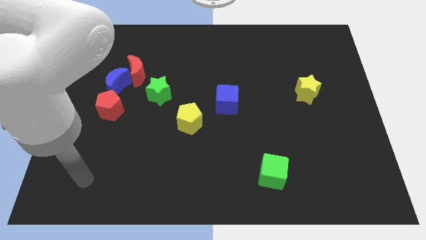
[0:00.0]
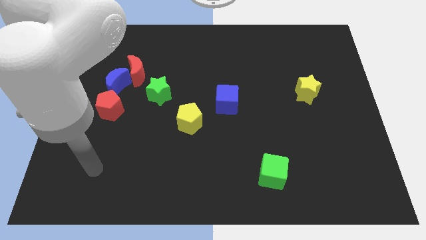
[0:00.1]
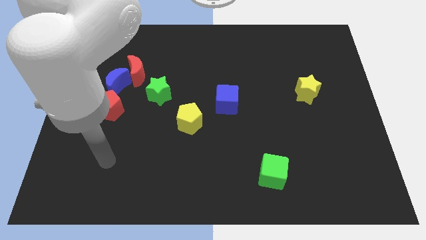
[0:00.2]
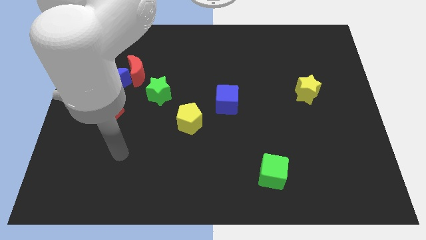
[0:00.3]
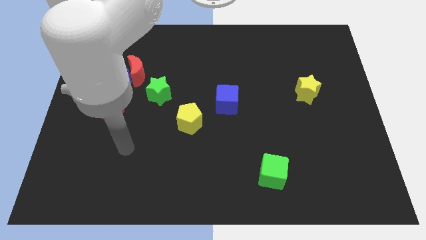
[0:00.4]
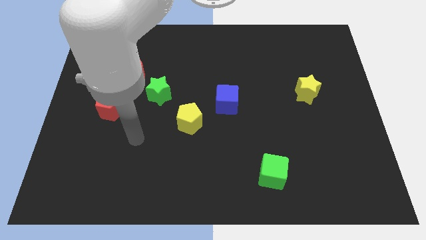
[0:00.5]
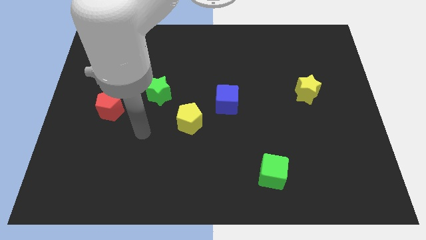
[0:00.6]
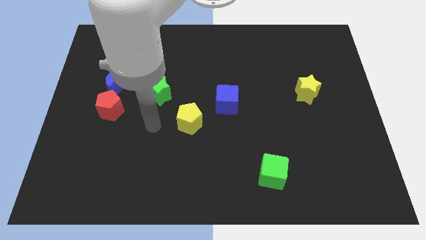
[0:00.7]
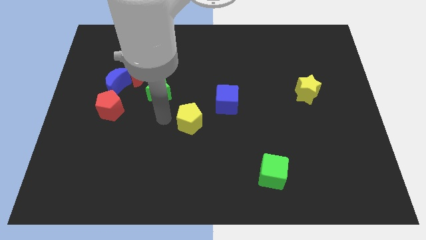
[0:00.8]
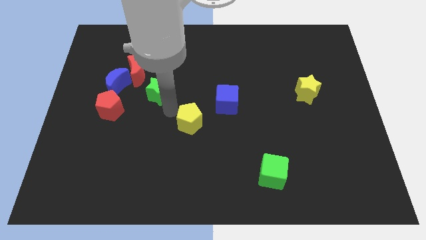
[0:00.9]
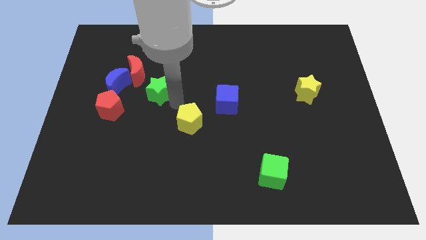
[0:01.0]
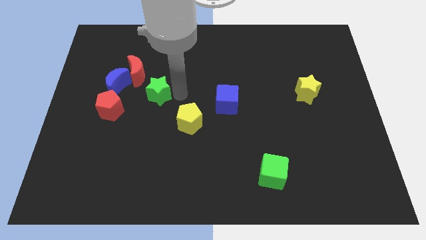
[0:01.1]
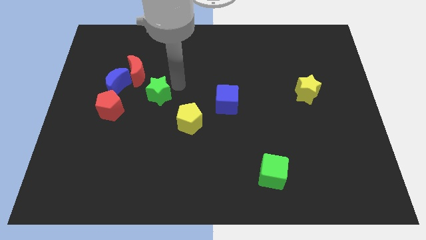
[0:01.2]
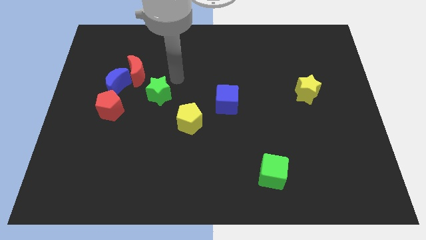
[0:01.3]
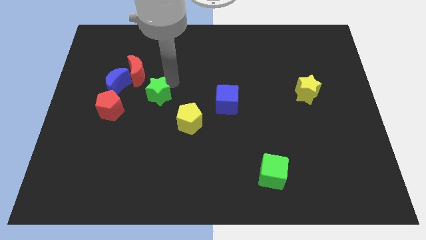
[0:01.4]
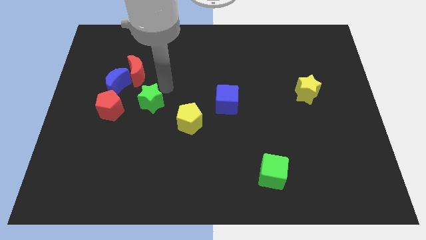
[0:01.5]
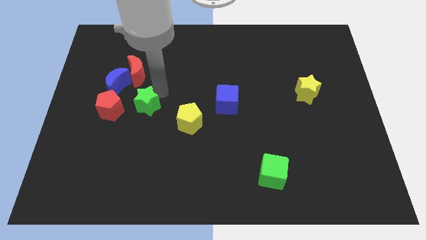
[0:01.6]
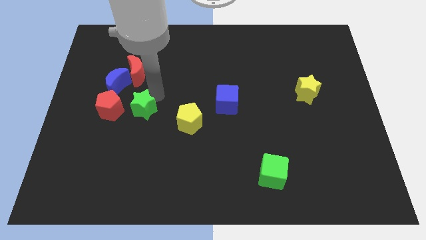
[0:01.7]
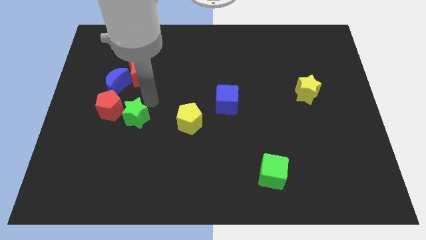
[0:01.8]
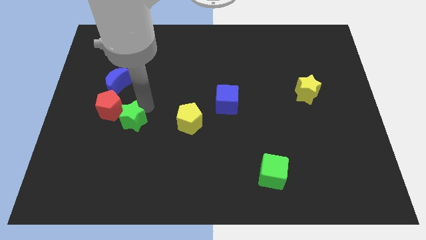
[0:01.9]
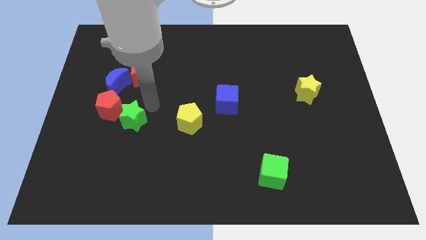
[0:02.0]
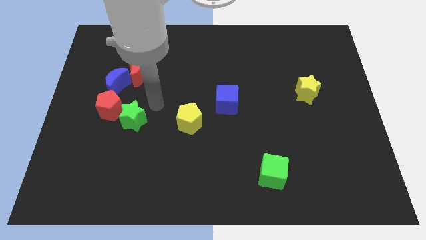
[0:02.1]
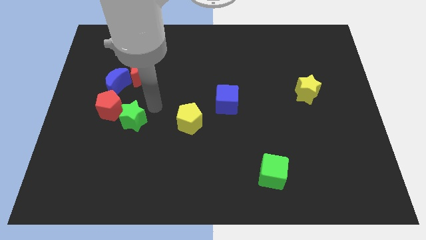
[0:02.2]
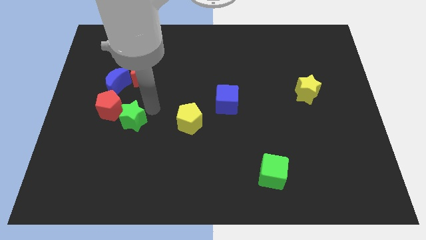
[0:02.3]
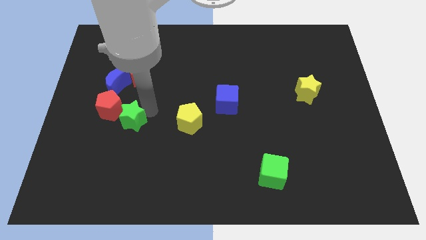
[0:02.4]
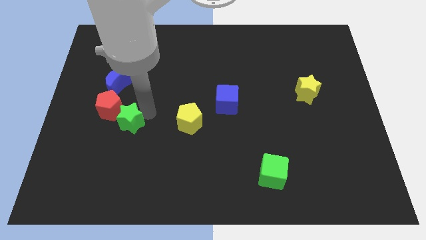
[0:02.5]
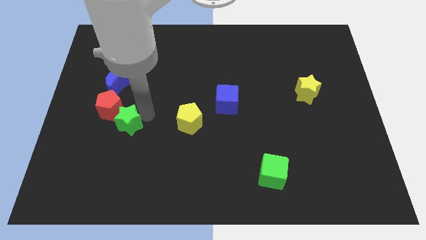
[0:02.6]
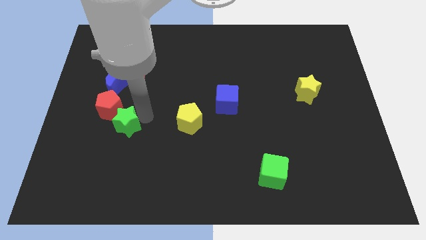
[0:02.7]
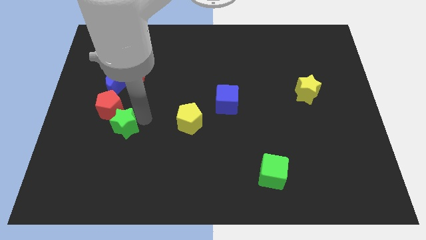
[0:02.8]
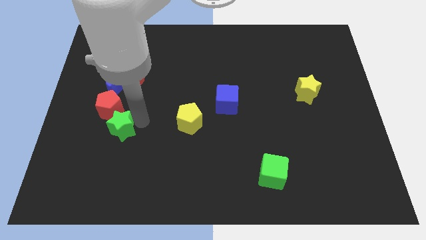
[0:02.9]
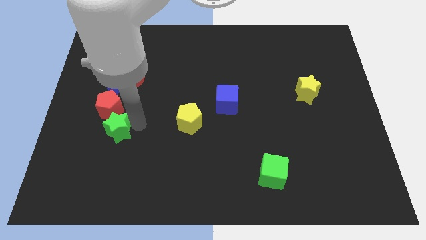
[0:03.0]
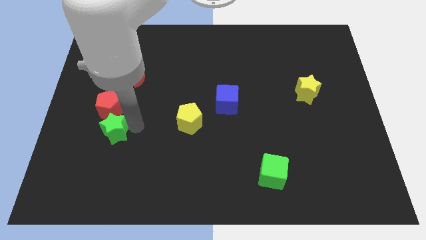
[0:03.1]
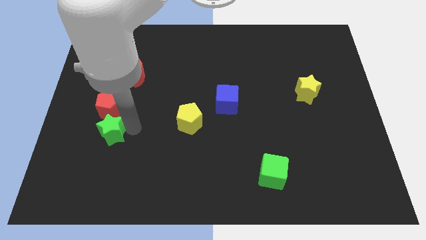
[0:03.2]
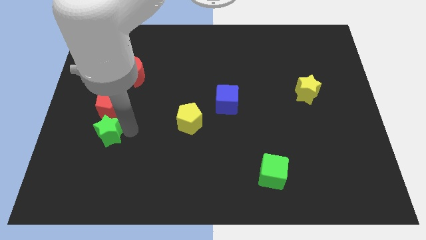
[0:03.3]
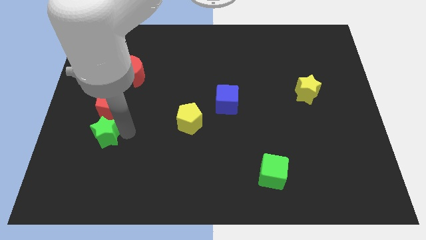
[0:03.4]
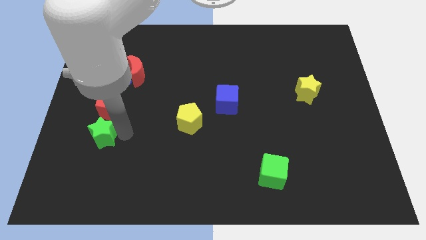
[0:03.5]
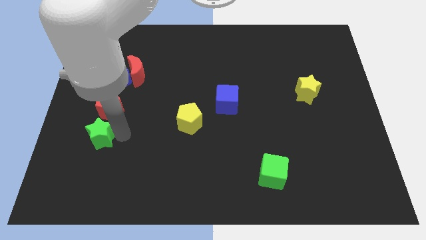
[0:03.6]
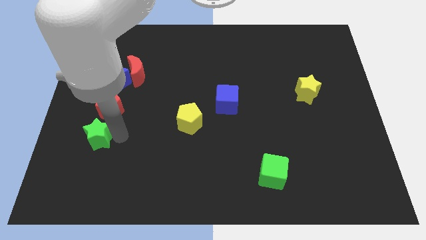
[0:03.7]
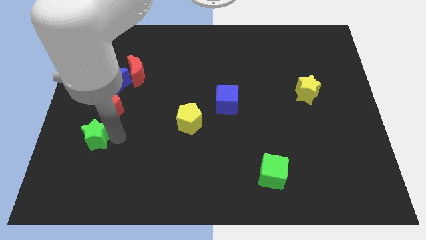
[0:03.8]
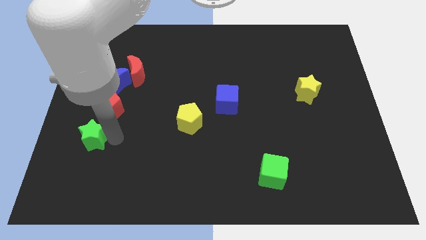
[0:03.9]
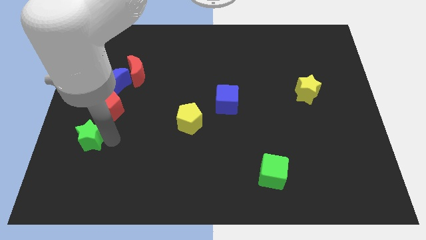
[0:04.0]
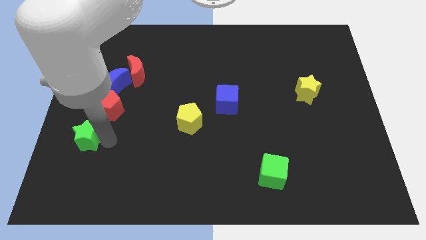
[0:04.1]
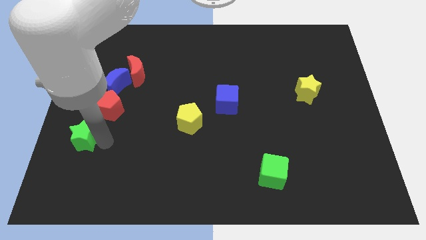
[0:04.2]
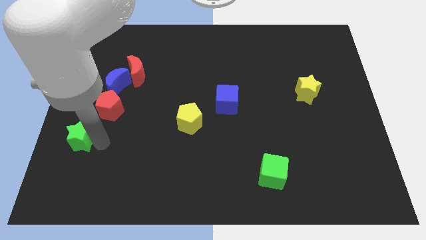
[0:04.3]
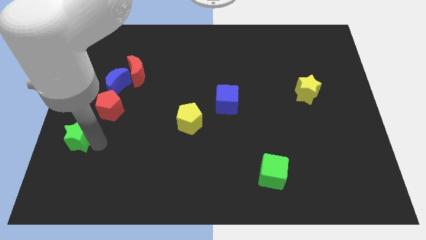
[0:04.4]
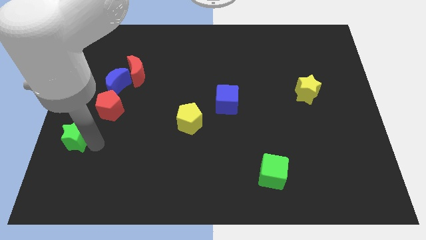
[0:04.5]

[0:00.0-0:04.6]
move the green star to the left side

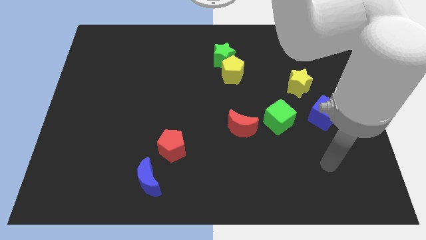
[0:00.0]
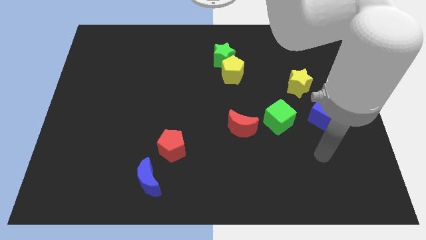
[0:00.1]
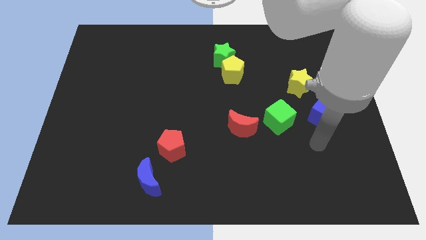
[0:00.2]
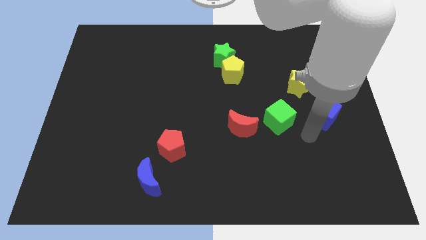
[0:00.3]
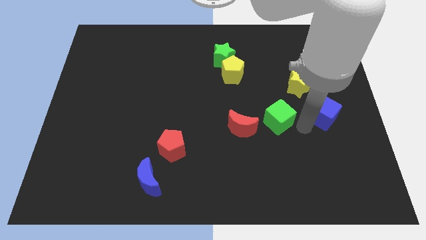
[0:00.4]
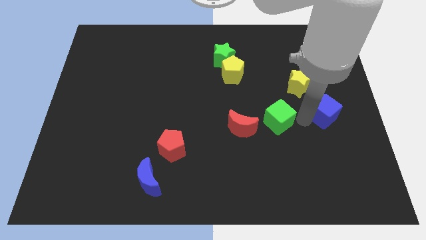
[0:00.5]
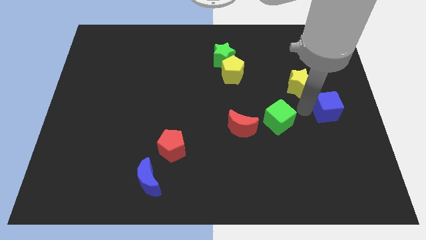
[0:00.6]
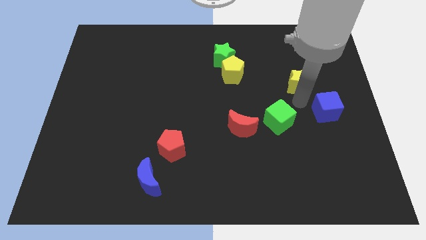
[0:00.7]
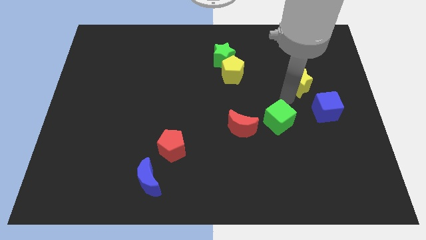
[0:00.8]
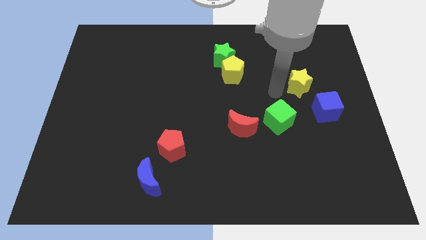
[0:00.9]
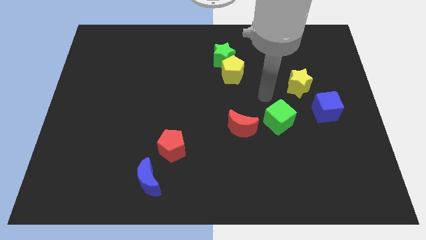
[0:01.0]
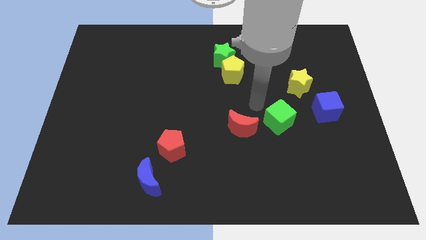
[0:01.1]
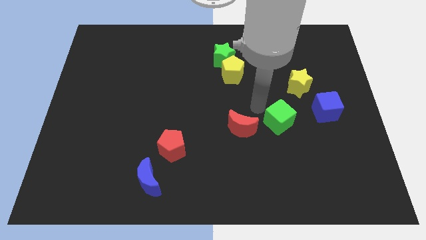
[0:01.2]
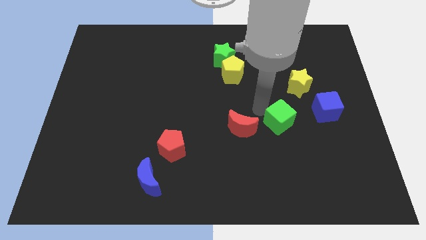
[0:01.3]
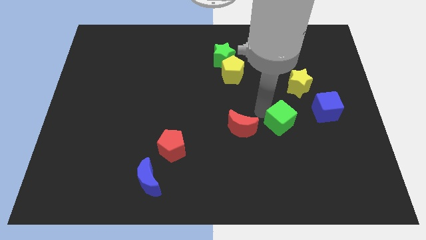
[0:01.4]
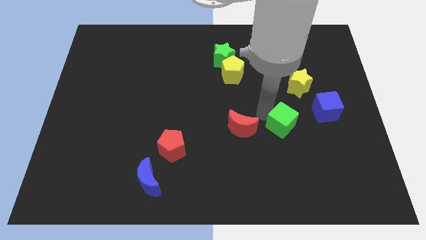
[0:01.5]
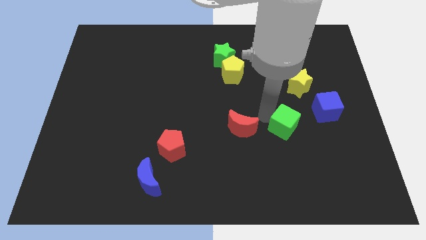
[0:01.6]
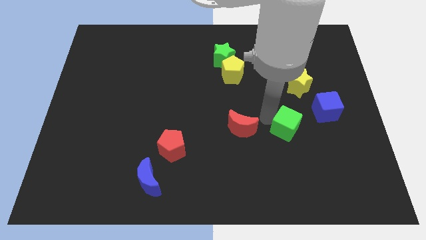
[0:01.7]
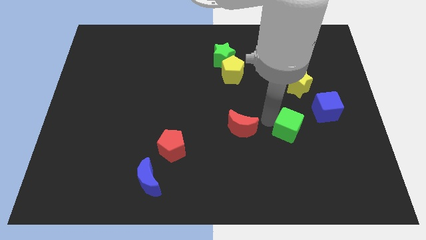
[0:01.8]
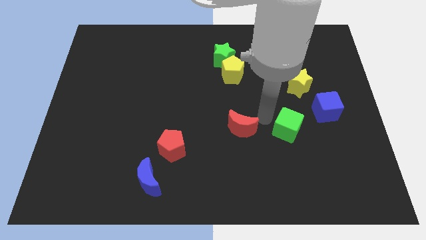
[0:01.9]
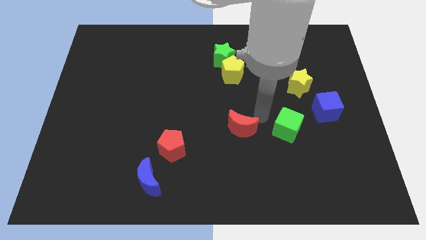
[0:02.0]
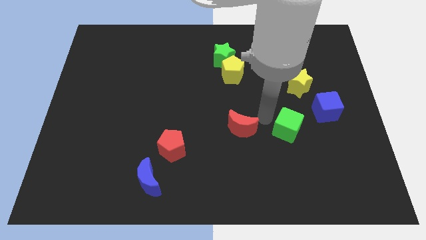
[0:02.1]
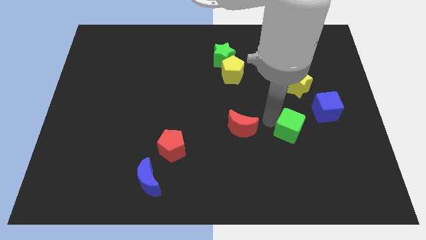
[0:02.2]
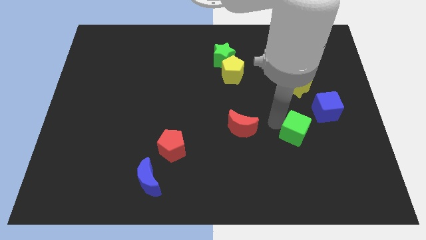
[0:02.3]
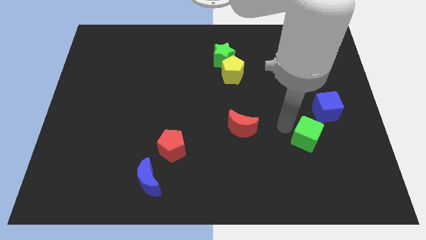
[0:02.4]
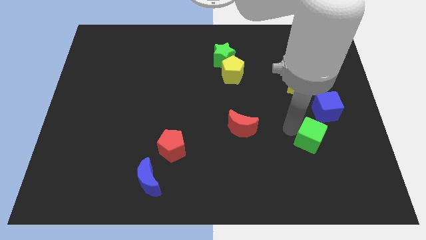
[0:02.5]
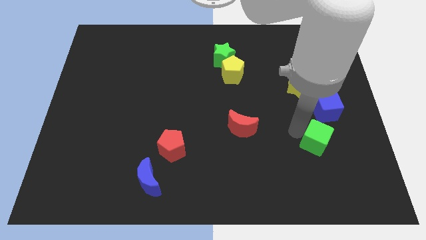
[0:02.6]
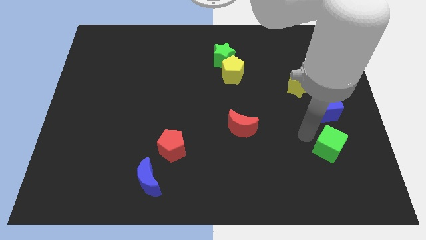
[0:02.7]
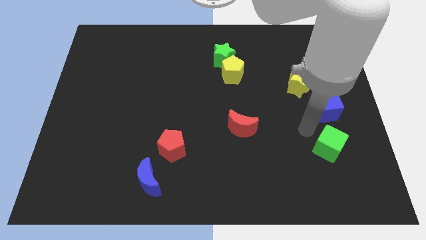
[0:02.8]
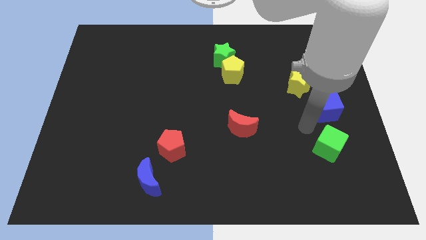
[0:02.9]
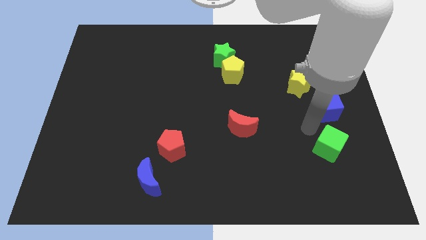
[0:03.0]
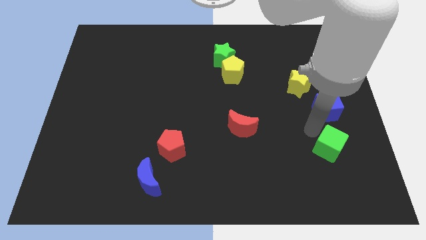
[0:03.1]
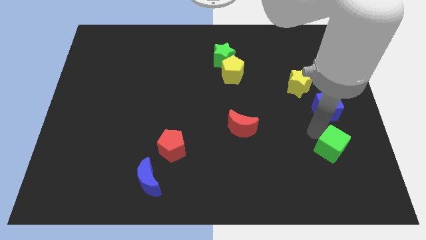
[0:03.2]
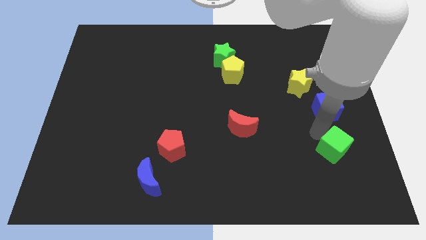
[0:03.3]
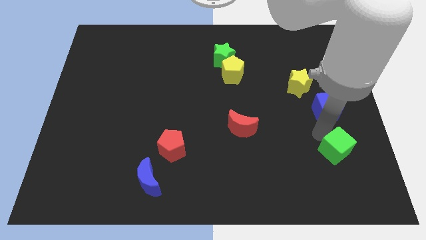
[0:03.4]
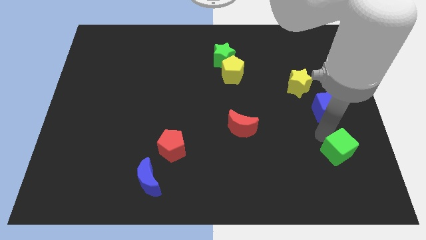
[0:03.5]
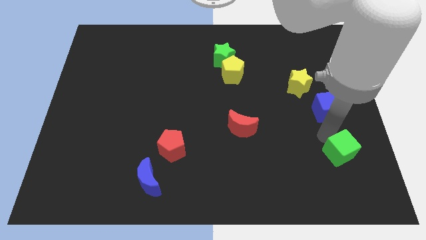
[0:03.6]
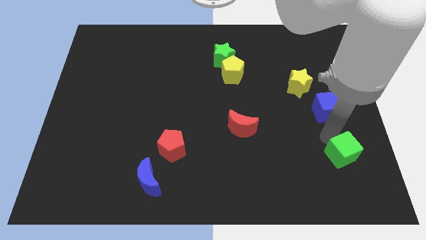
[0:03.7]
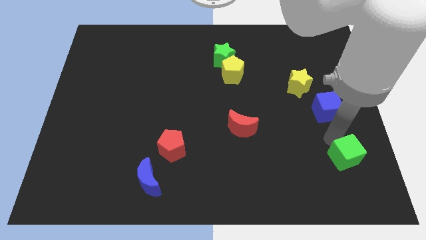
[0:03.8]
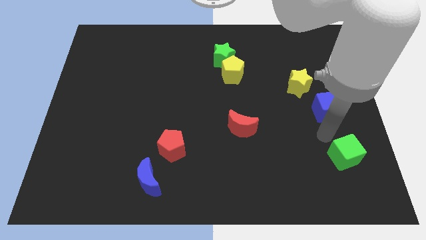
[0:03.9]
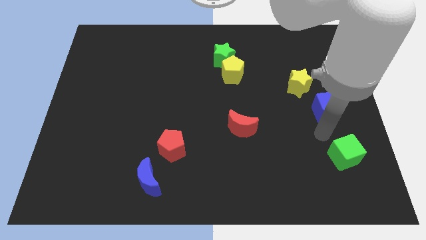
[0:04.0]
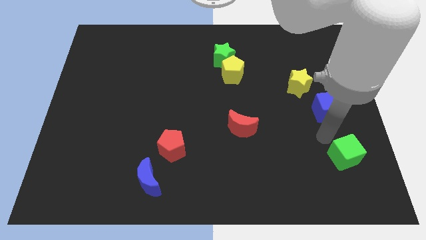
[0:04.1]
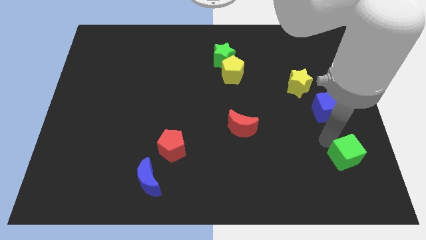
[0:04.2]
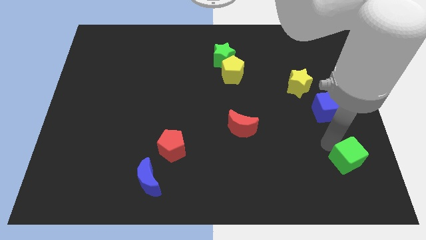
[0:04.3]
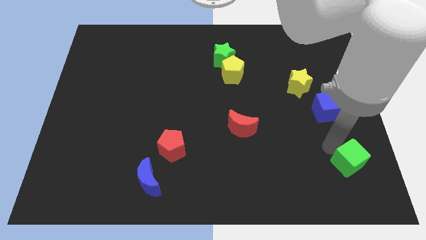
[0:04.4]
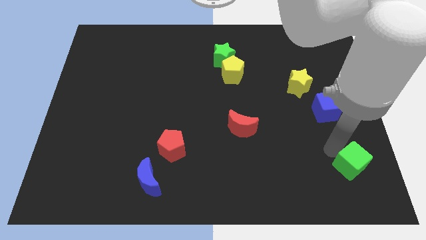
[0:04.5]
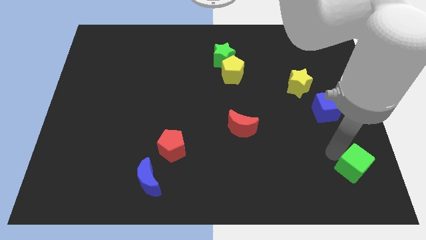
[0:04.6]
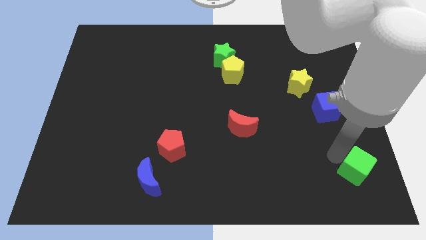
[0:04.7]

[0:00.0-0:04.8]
push the green cube to the lower right corner
